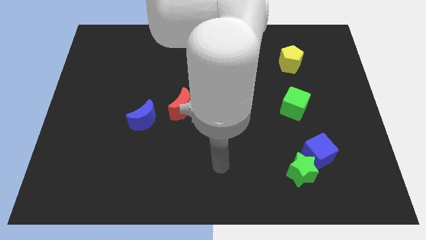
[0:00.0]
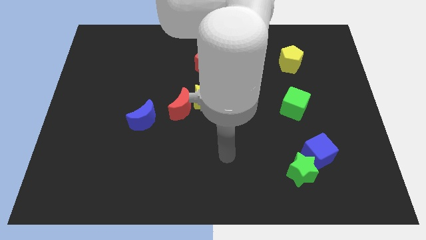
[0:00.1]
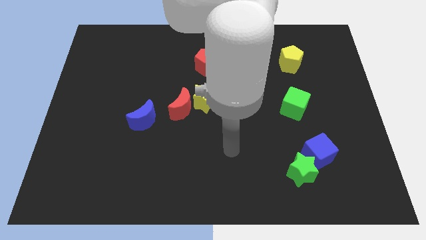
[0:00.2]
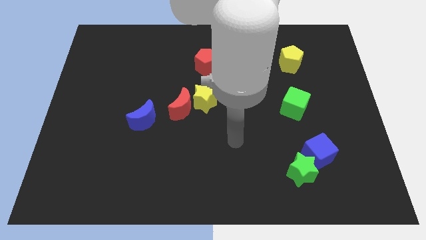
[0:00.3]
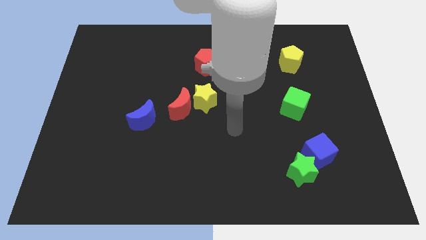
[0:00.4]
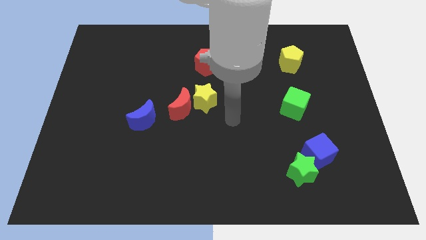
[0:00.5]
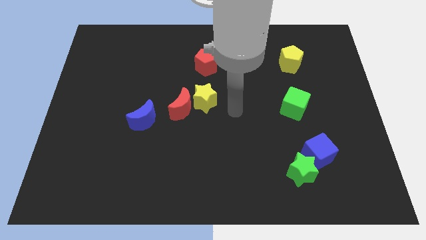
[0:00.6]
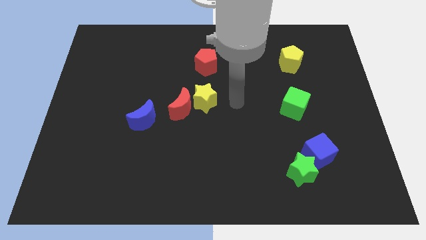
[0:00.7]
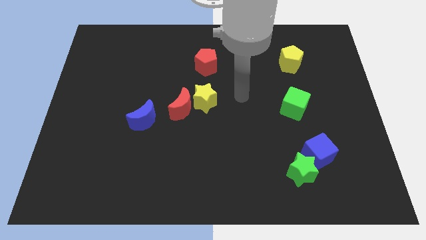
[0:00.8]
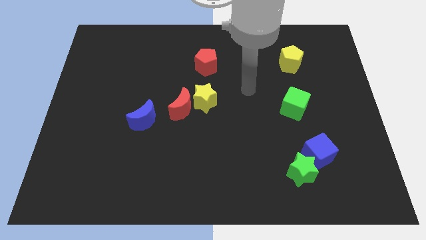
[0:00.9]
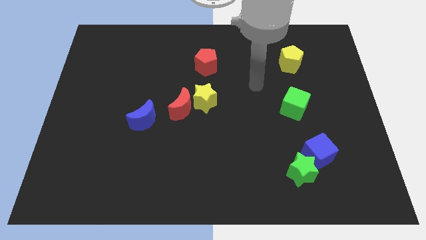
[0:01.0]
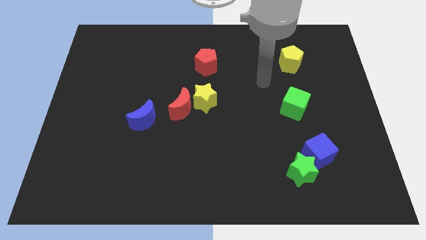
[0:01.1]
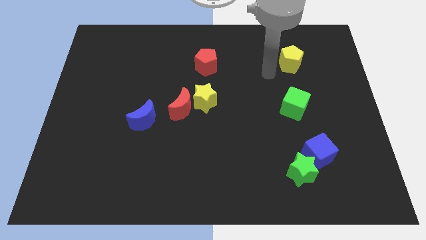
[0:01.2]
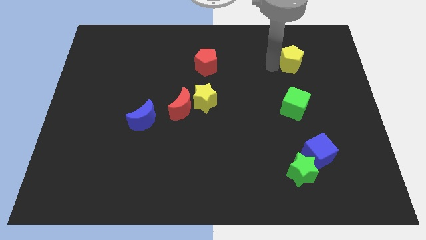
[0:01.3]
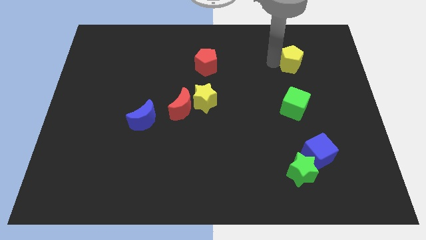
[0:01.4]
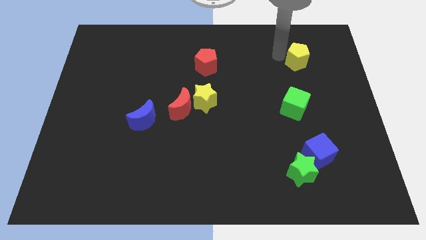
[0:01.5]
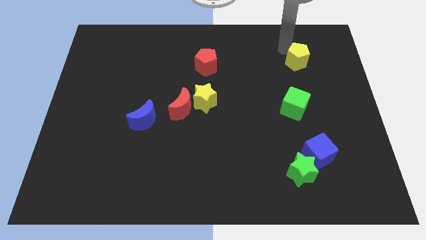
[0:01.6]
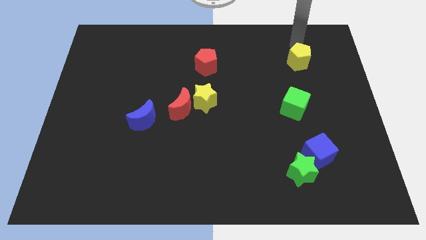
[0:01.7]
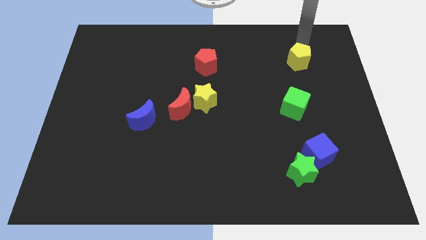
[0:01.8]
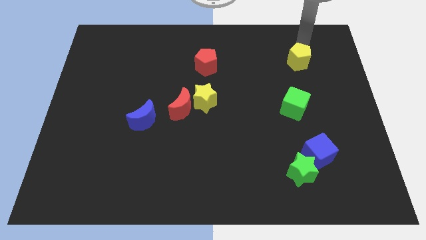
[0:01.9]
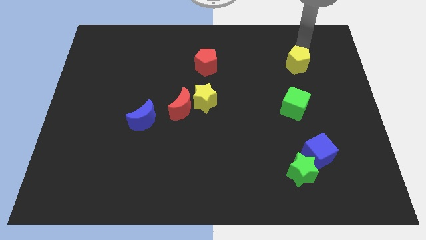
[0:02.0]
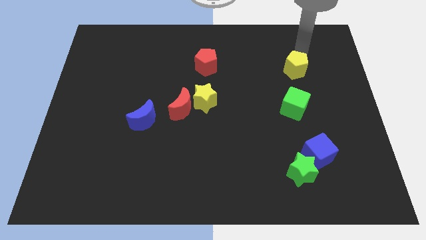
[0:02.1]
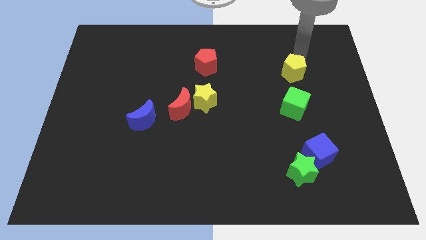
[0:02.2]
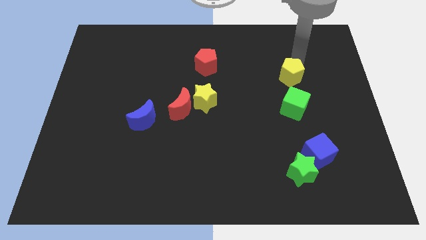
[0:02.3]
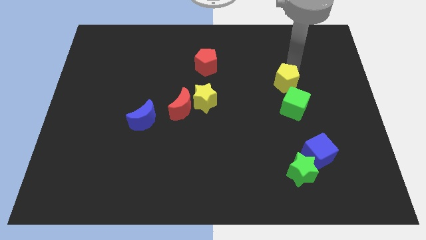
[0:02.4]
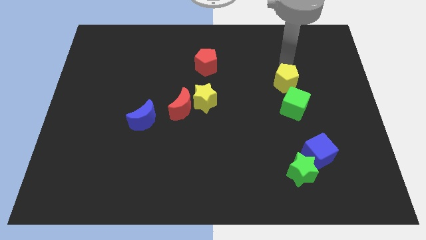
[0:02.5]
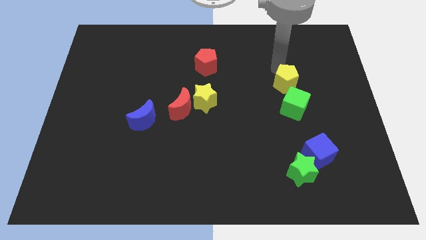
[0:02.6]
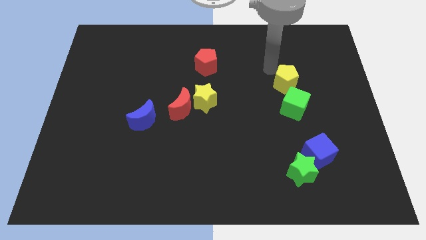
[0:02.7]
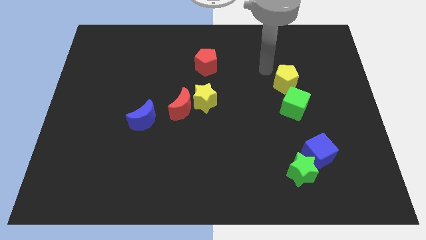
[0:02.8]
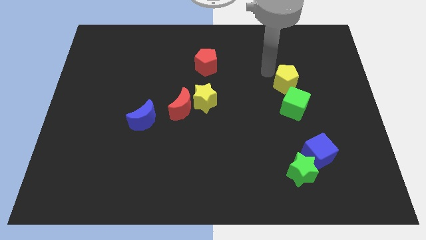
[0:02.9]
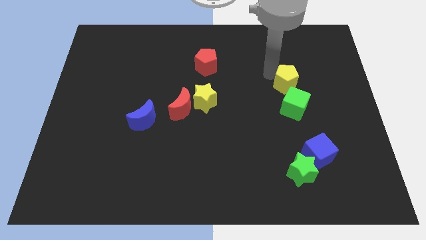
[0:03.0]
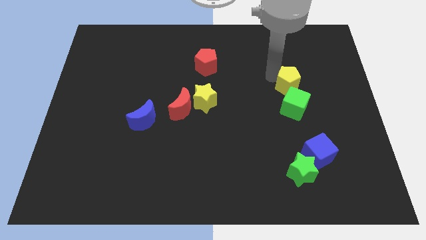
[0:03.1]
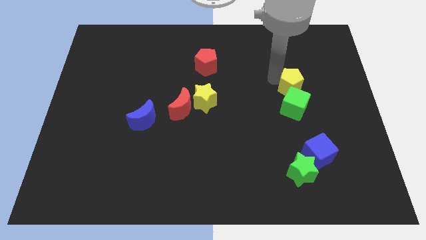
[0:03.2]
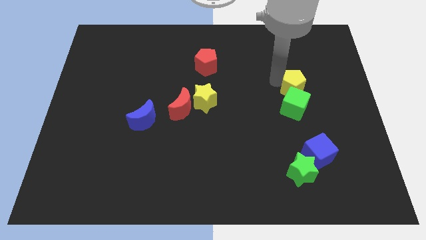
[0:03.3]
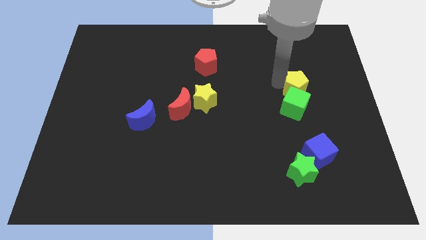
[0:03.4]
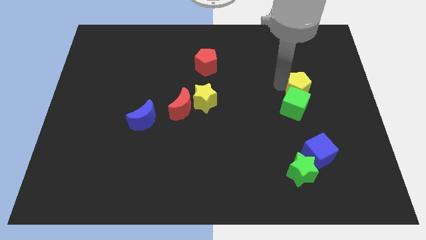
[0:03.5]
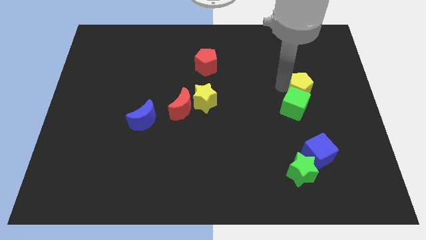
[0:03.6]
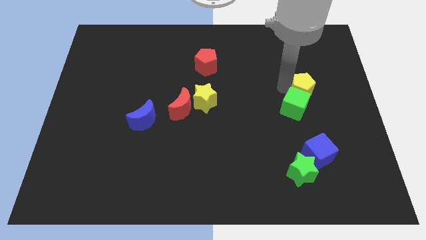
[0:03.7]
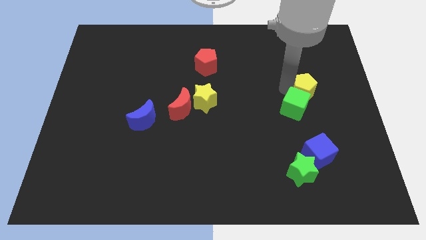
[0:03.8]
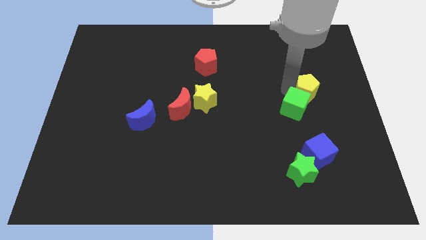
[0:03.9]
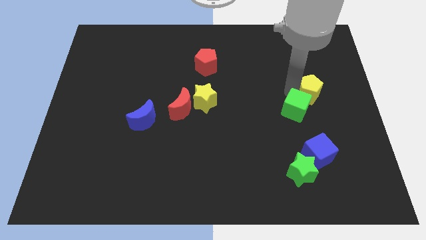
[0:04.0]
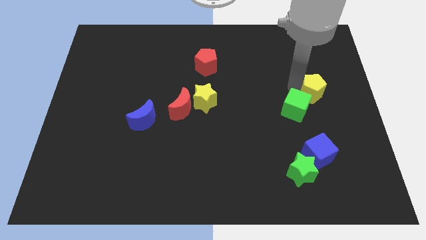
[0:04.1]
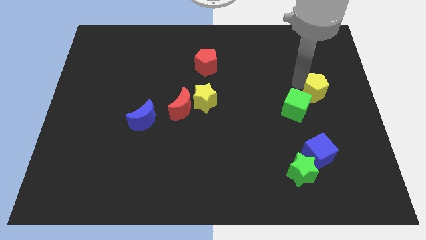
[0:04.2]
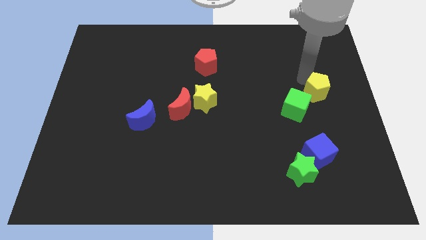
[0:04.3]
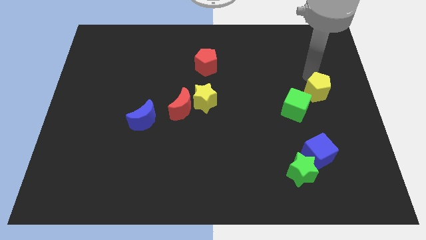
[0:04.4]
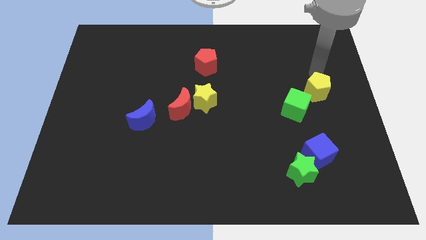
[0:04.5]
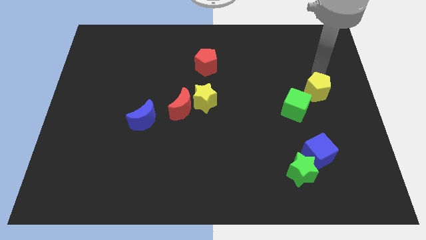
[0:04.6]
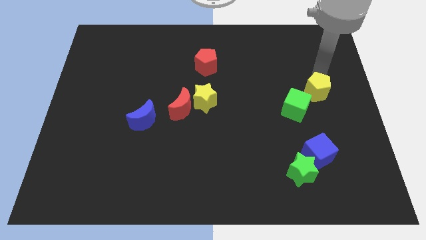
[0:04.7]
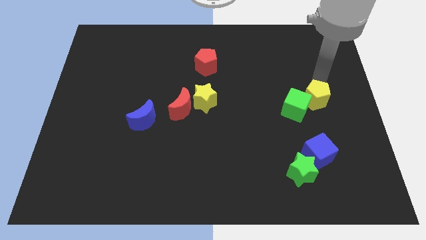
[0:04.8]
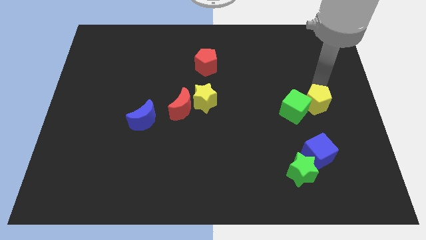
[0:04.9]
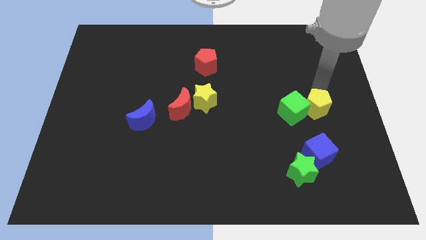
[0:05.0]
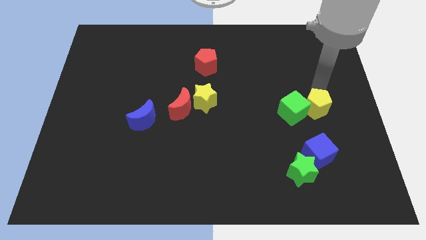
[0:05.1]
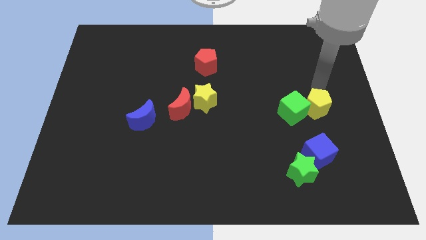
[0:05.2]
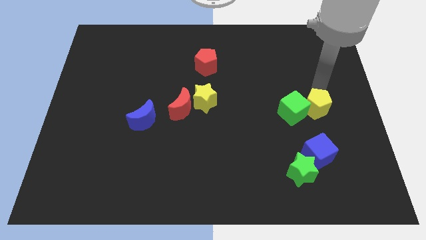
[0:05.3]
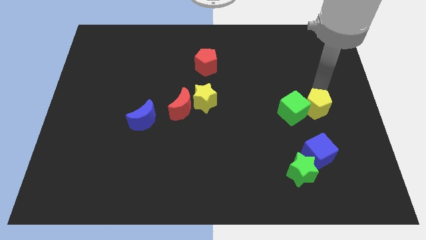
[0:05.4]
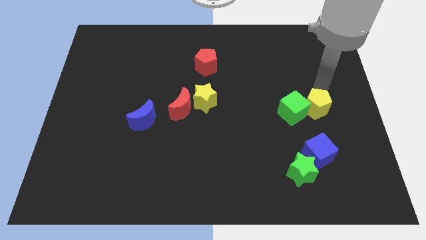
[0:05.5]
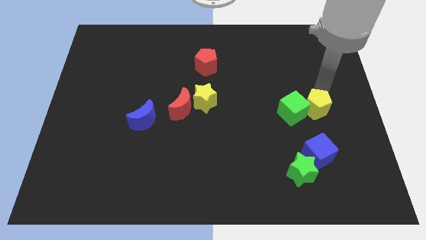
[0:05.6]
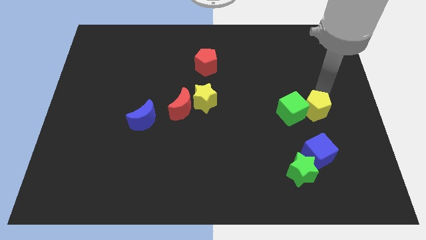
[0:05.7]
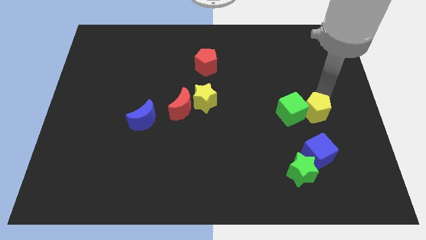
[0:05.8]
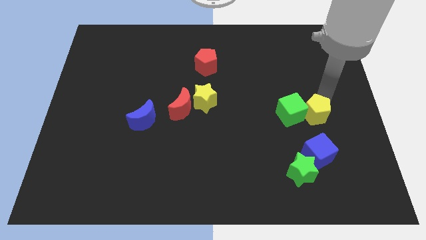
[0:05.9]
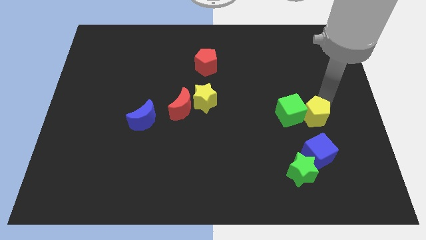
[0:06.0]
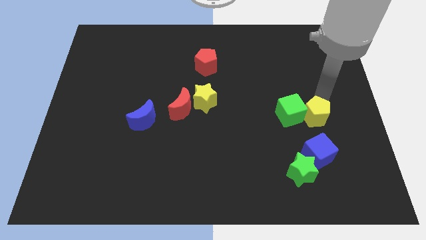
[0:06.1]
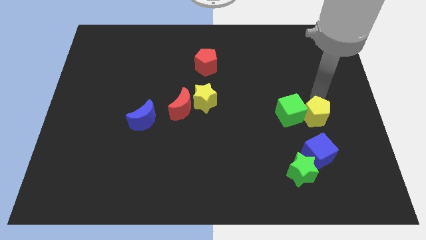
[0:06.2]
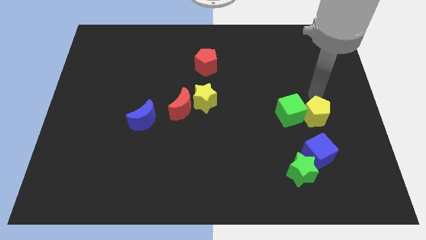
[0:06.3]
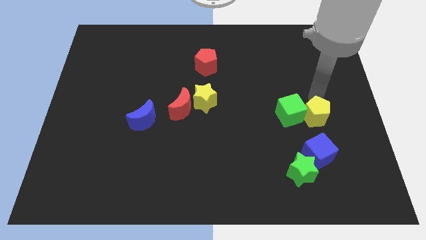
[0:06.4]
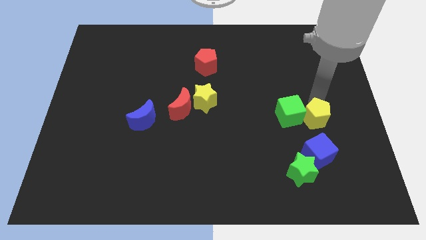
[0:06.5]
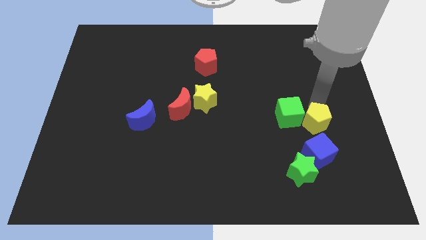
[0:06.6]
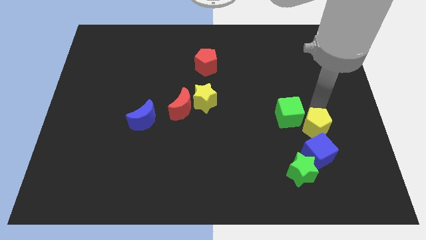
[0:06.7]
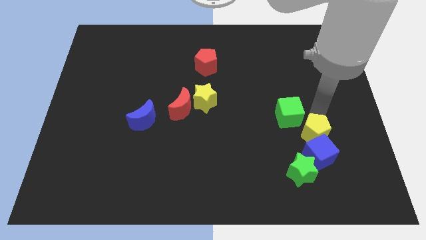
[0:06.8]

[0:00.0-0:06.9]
push the yellow pentagon to the blue cube

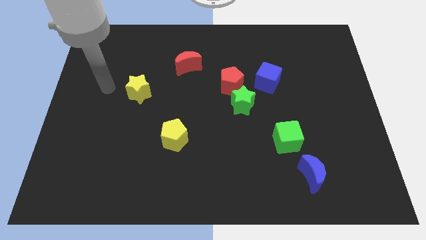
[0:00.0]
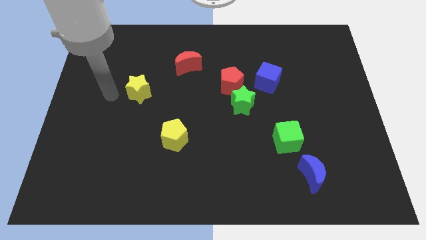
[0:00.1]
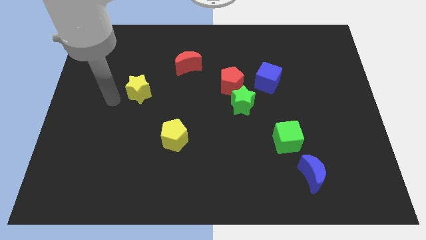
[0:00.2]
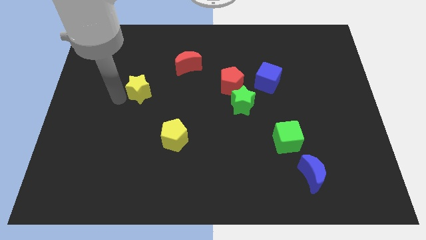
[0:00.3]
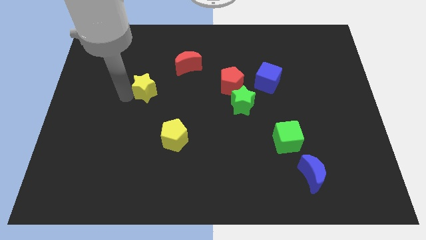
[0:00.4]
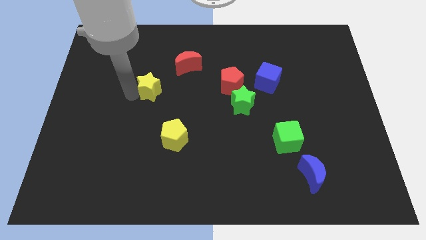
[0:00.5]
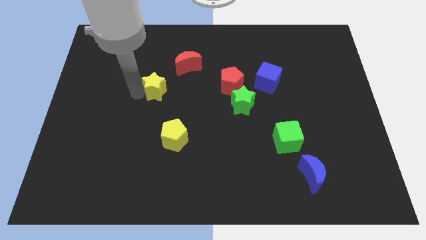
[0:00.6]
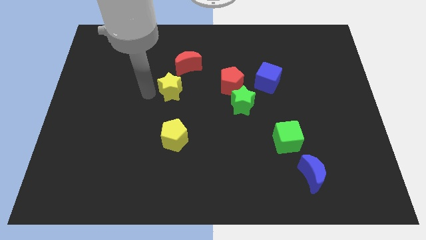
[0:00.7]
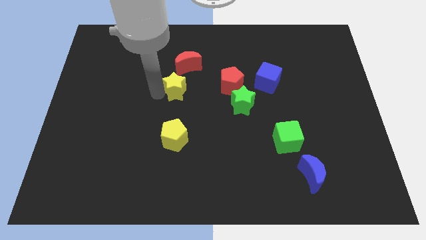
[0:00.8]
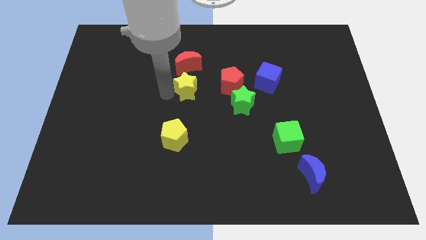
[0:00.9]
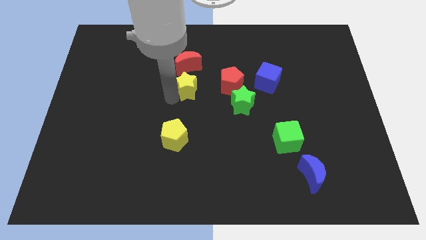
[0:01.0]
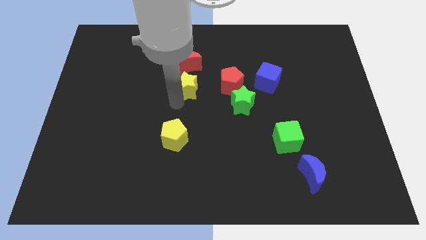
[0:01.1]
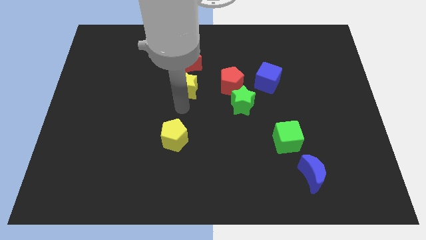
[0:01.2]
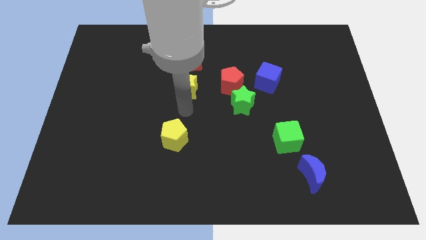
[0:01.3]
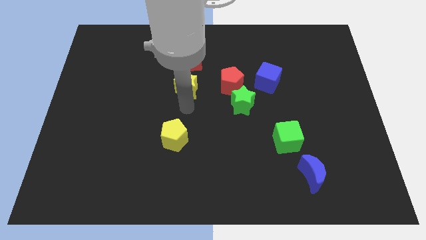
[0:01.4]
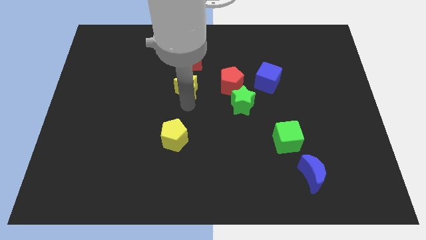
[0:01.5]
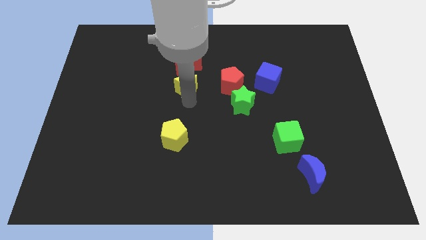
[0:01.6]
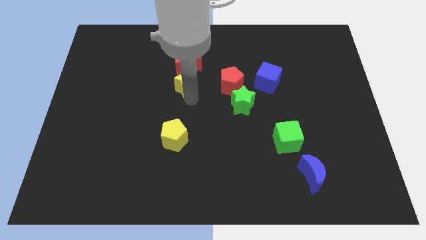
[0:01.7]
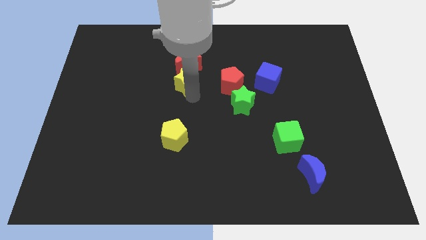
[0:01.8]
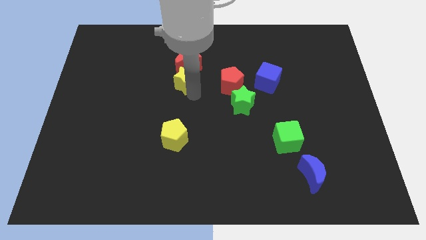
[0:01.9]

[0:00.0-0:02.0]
put the yellow star to the red moon
